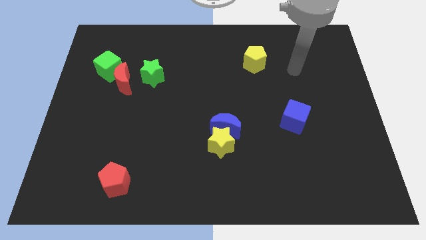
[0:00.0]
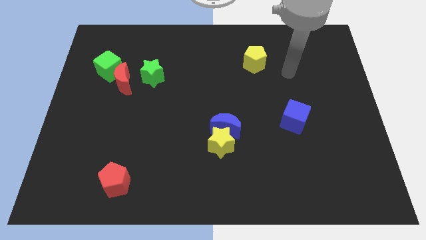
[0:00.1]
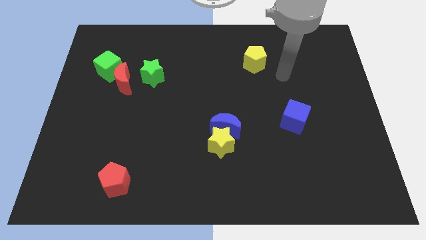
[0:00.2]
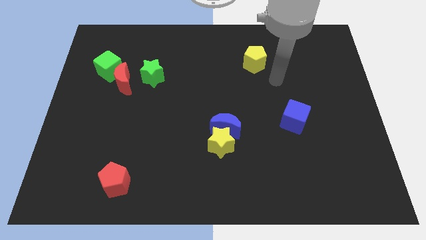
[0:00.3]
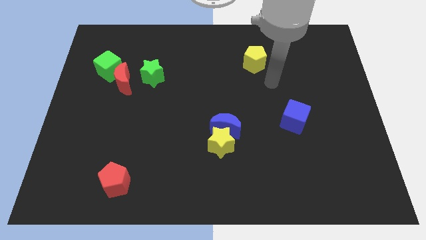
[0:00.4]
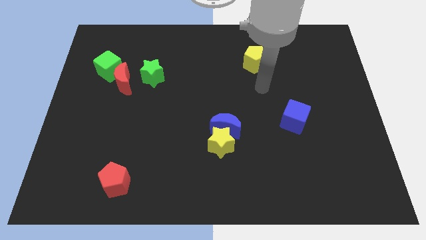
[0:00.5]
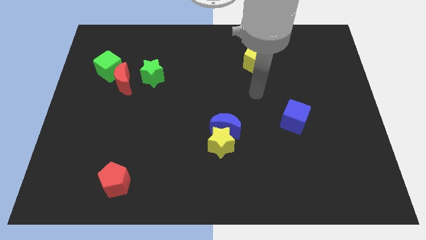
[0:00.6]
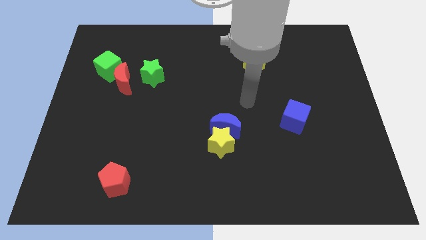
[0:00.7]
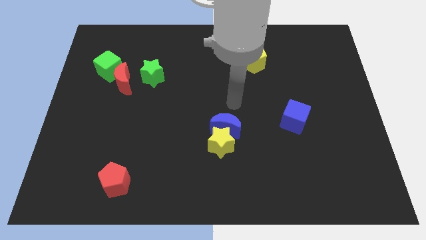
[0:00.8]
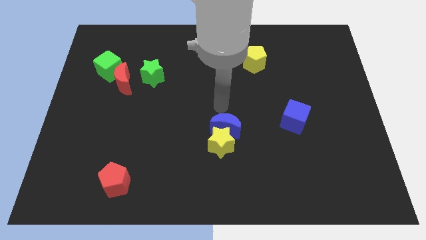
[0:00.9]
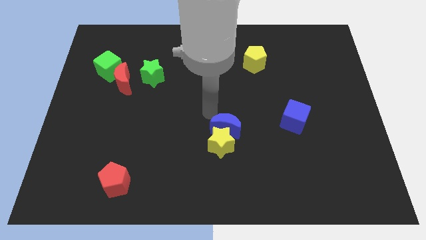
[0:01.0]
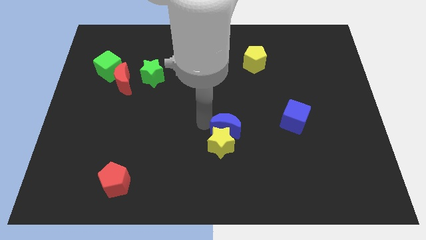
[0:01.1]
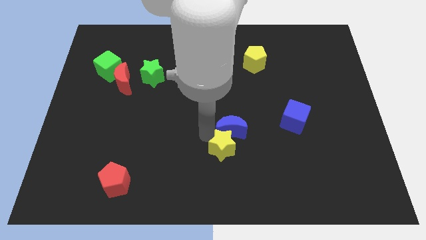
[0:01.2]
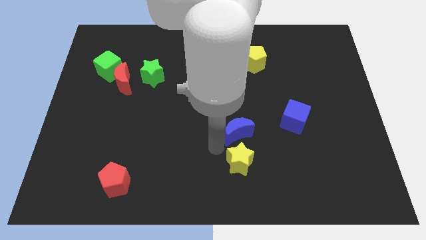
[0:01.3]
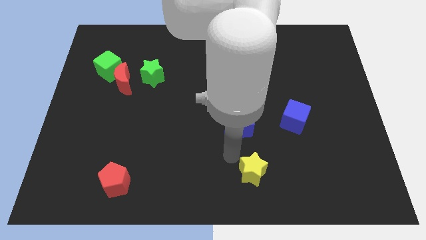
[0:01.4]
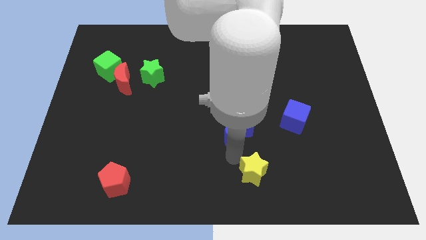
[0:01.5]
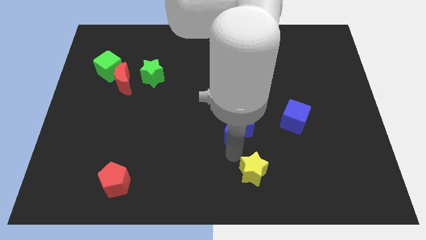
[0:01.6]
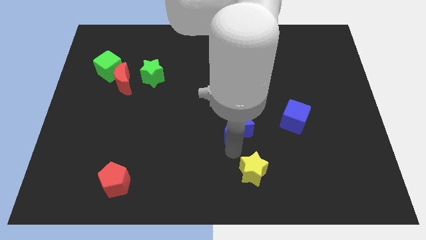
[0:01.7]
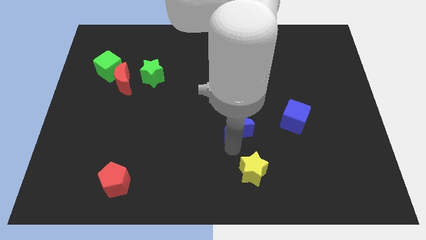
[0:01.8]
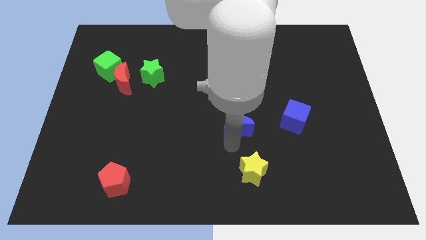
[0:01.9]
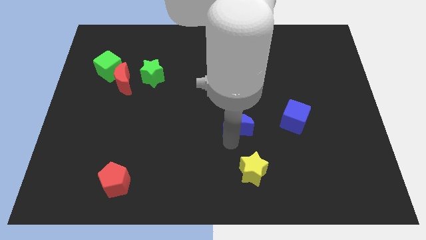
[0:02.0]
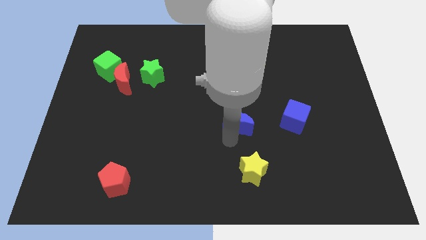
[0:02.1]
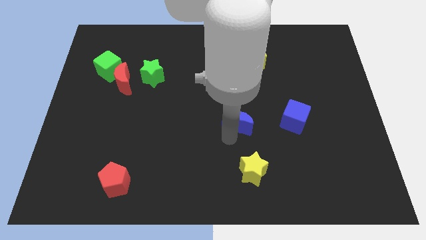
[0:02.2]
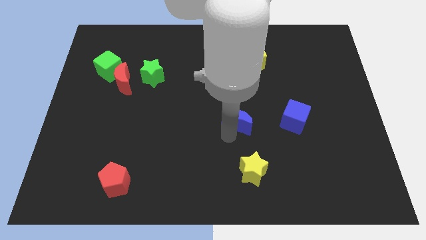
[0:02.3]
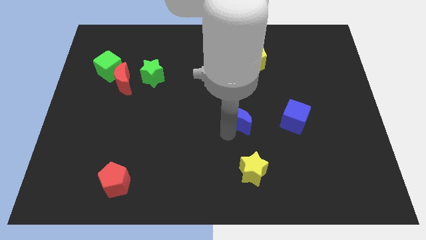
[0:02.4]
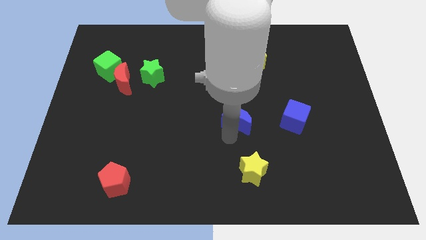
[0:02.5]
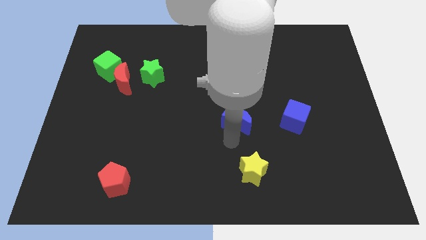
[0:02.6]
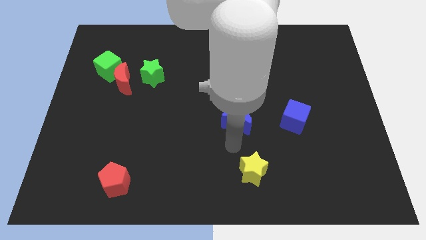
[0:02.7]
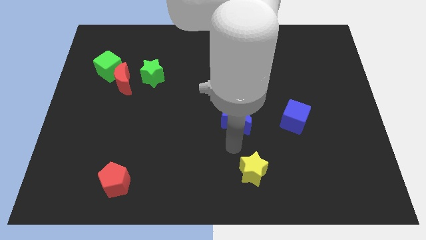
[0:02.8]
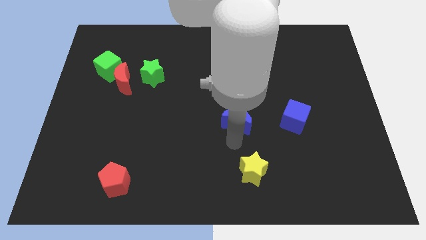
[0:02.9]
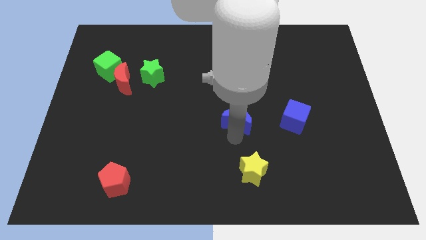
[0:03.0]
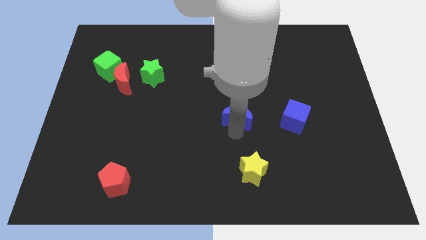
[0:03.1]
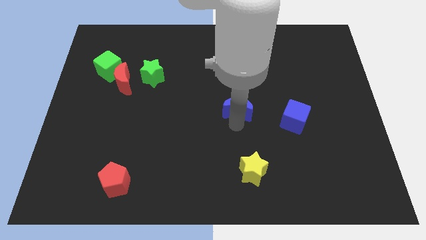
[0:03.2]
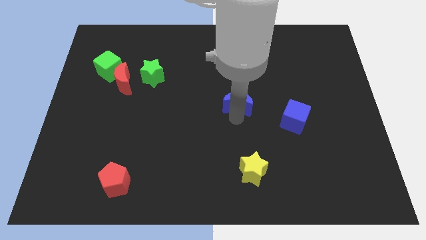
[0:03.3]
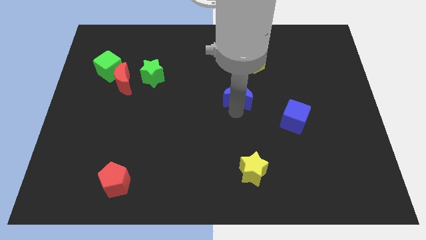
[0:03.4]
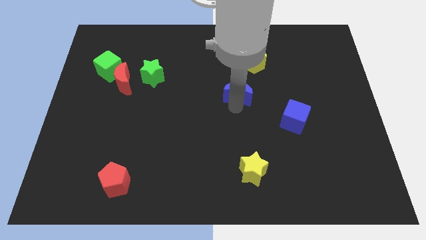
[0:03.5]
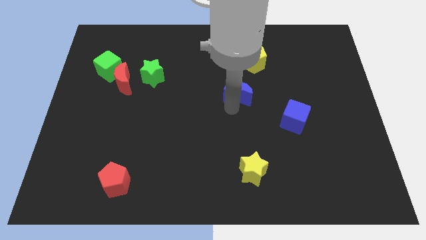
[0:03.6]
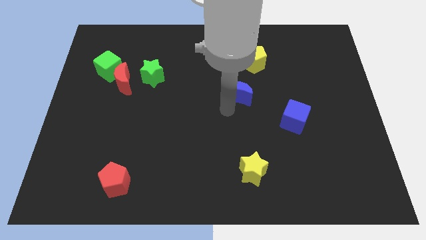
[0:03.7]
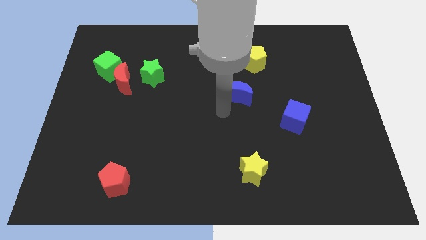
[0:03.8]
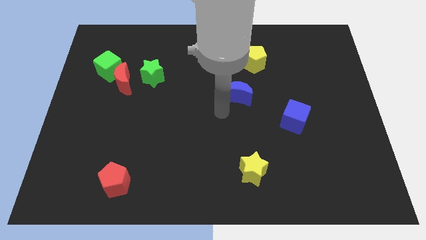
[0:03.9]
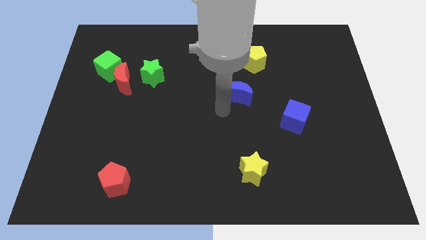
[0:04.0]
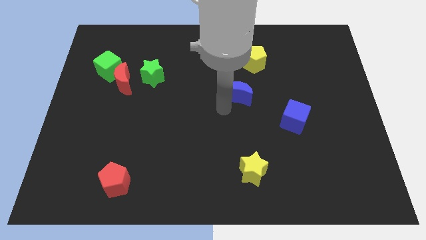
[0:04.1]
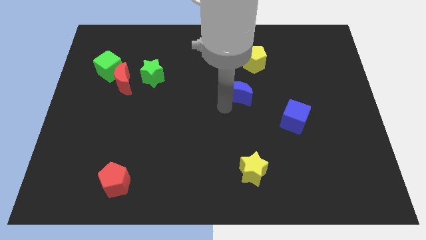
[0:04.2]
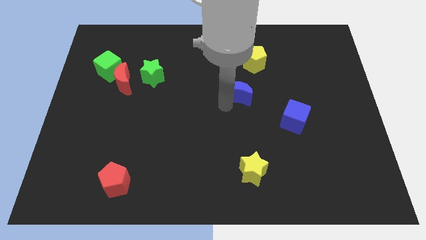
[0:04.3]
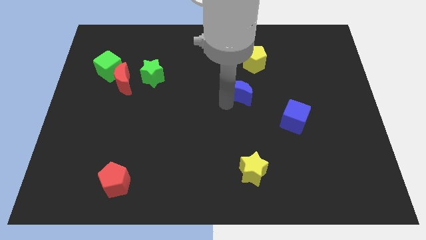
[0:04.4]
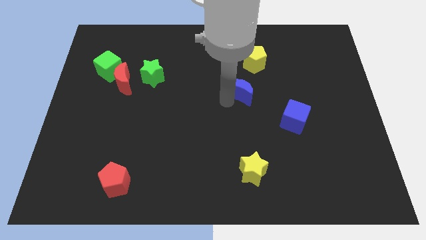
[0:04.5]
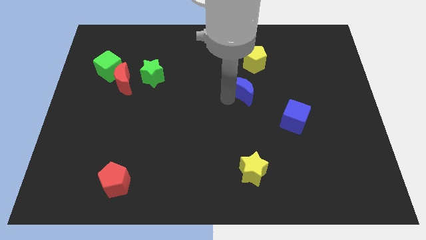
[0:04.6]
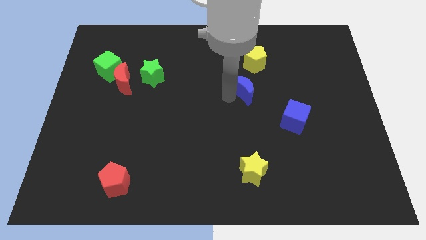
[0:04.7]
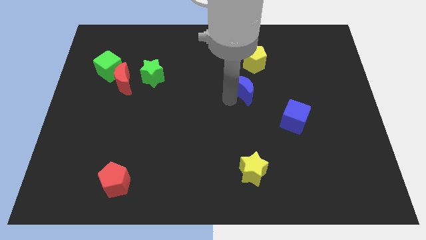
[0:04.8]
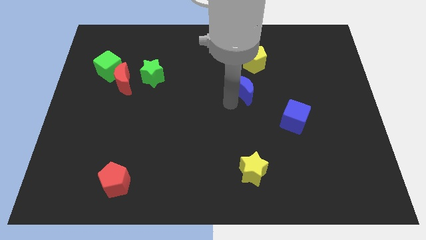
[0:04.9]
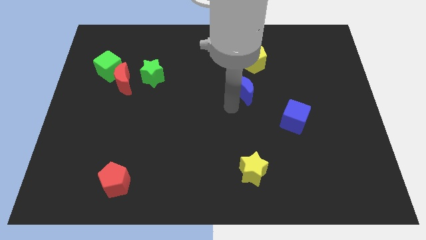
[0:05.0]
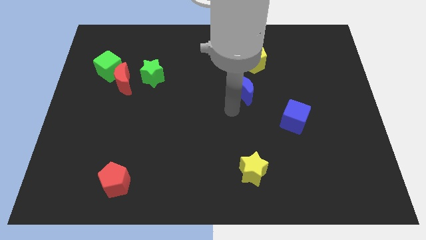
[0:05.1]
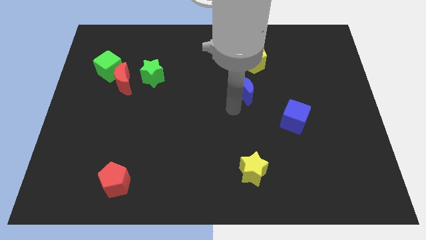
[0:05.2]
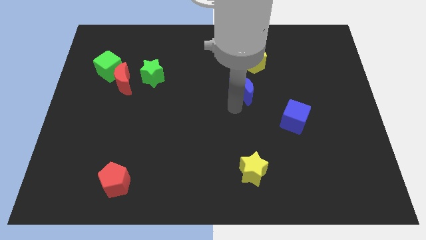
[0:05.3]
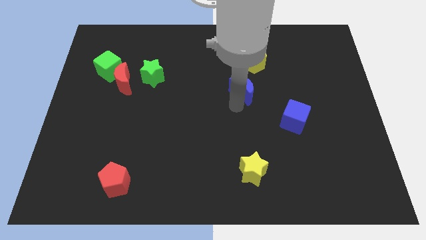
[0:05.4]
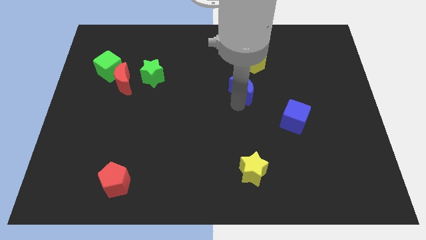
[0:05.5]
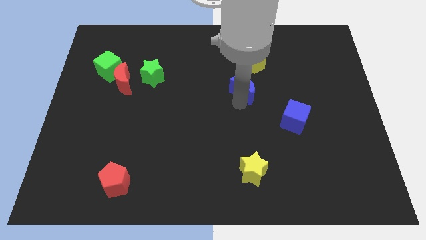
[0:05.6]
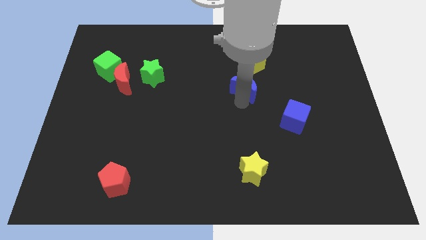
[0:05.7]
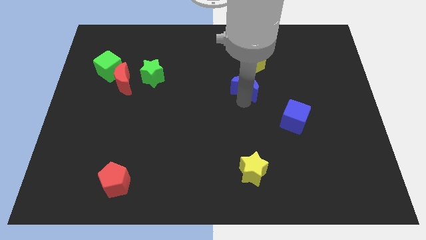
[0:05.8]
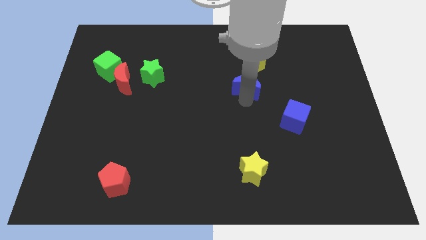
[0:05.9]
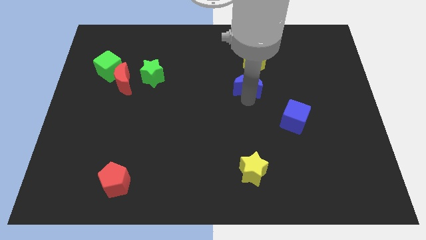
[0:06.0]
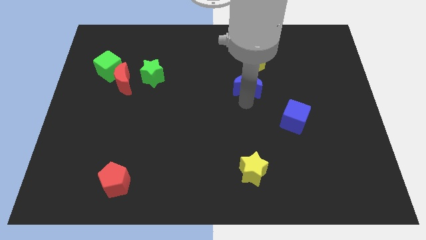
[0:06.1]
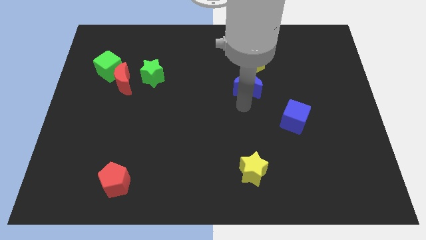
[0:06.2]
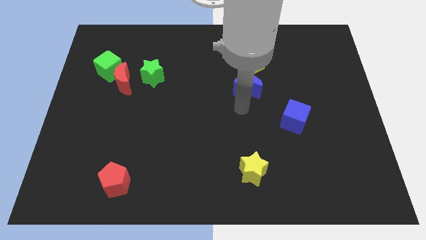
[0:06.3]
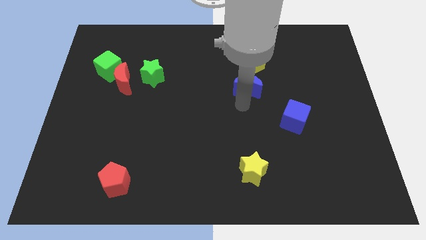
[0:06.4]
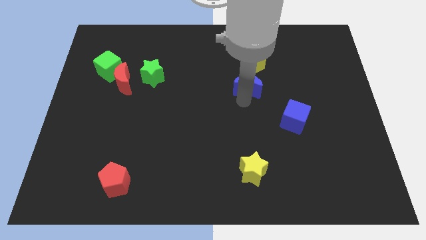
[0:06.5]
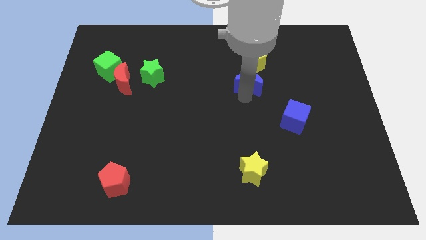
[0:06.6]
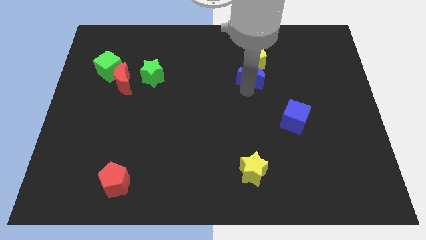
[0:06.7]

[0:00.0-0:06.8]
move the blue moon next to the yellow pentagon
